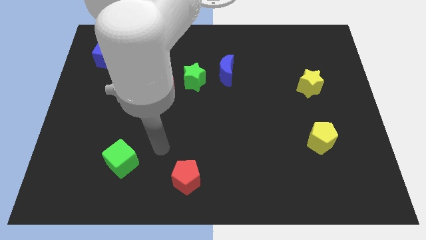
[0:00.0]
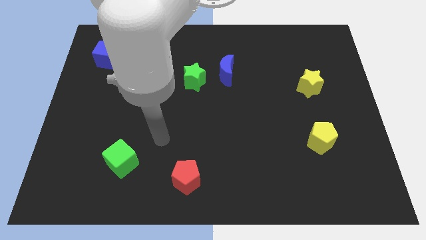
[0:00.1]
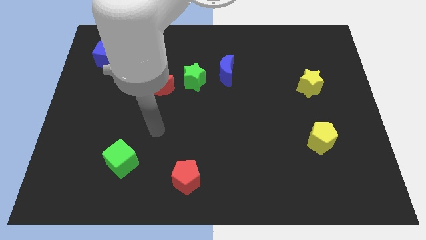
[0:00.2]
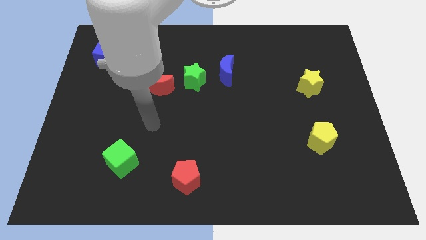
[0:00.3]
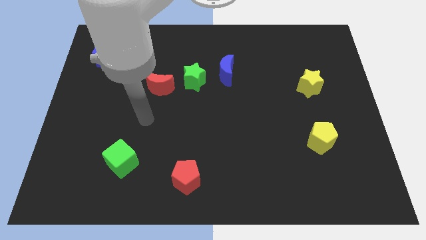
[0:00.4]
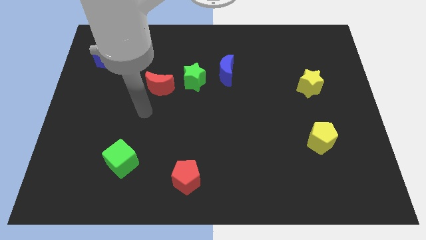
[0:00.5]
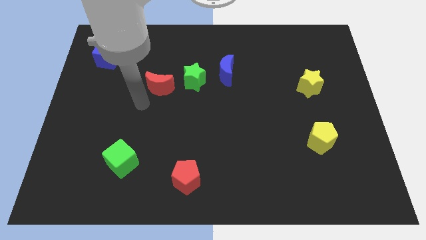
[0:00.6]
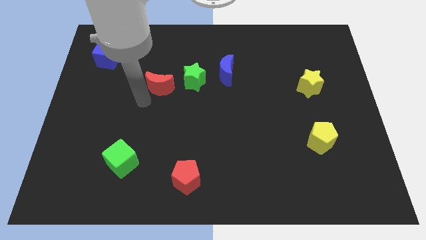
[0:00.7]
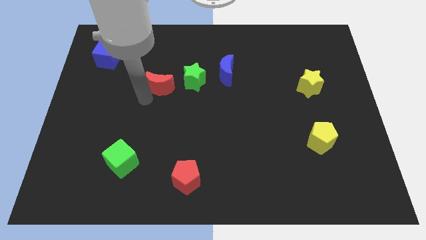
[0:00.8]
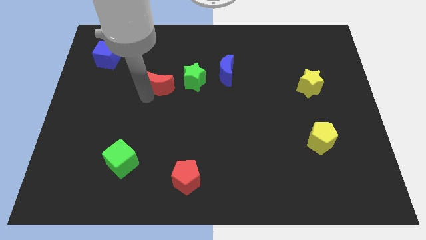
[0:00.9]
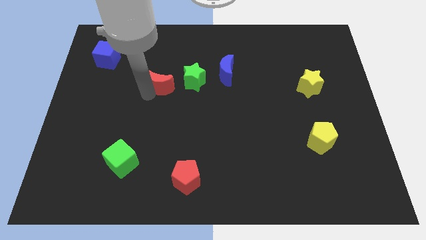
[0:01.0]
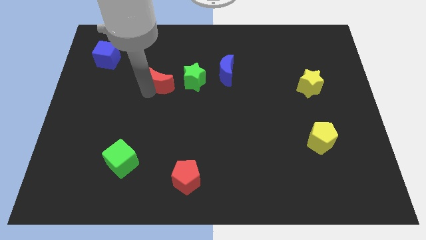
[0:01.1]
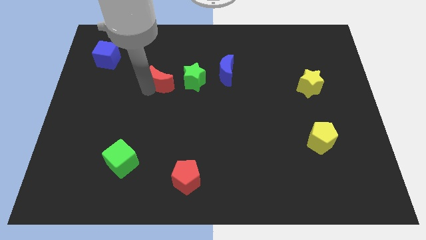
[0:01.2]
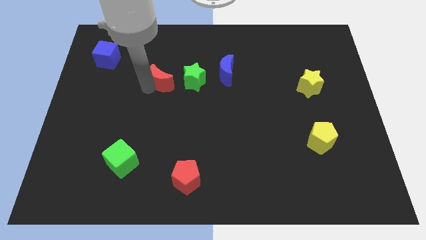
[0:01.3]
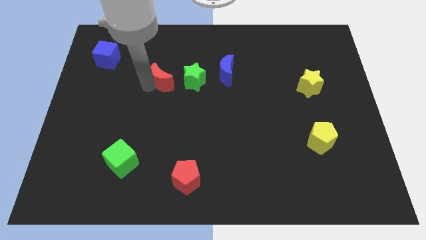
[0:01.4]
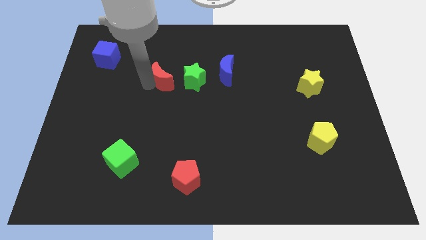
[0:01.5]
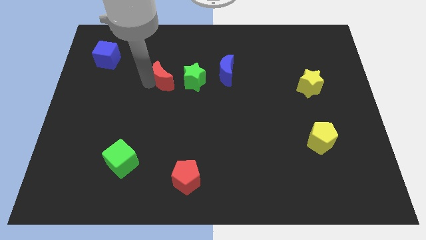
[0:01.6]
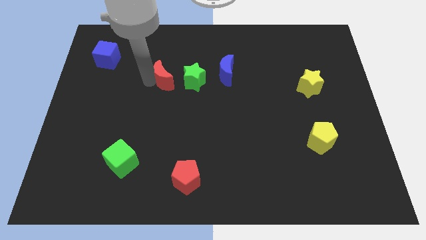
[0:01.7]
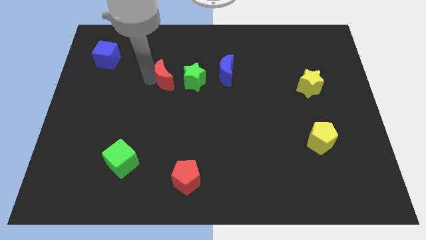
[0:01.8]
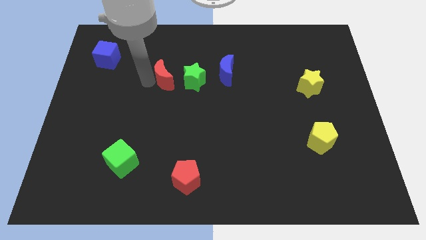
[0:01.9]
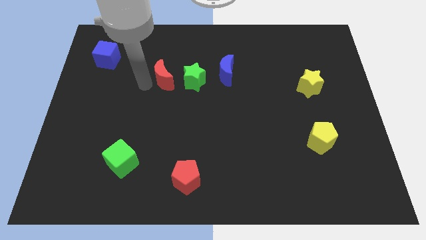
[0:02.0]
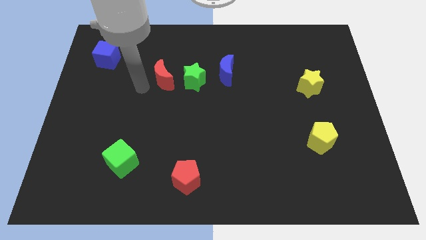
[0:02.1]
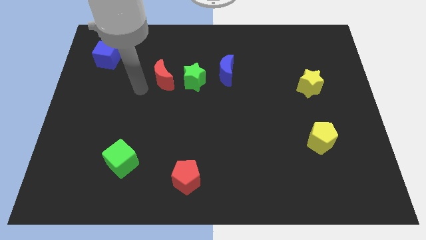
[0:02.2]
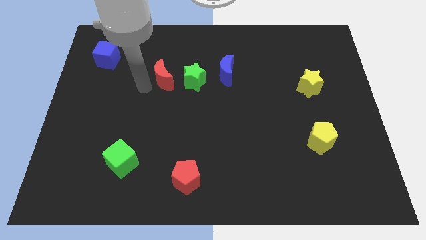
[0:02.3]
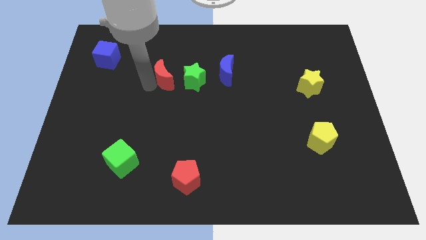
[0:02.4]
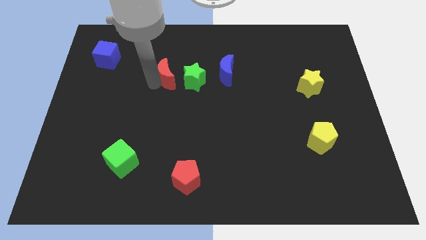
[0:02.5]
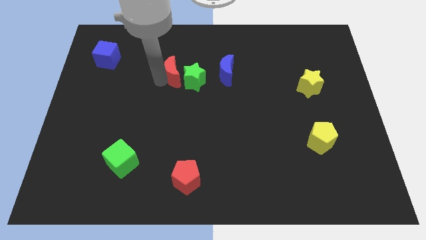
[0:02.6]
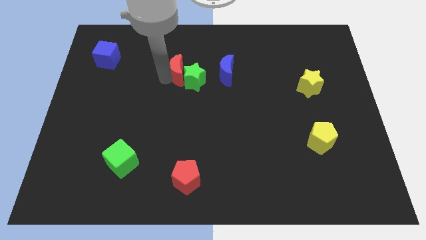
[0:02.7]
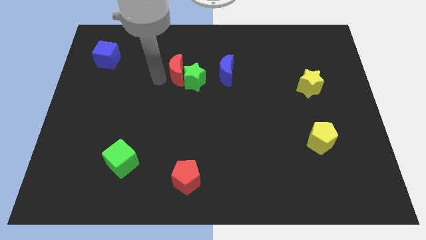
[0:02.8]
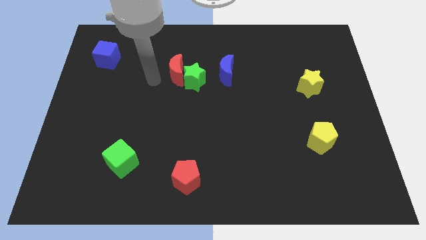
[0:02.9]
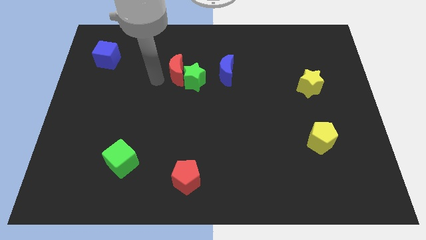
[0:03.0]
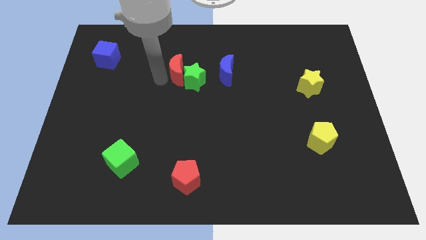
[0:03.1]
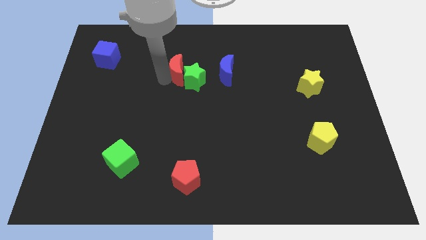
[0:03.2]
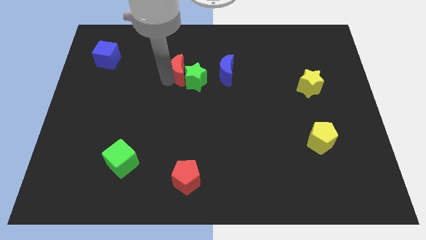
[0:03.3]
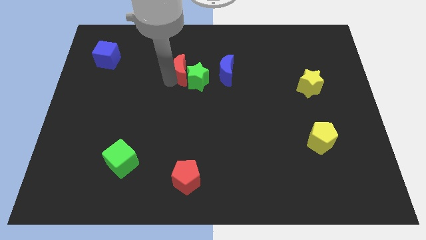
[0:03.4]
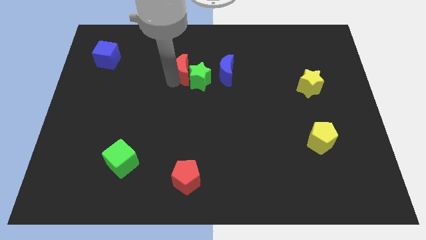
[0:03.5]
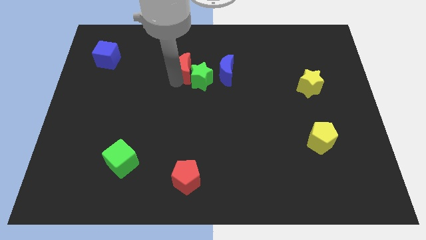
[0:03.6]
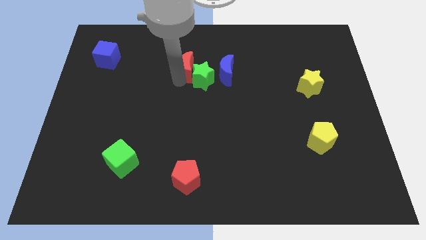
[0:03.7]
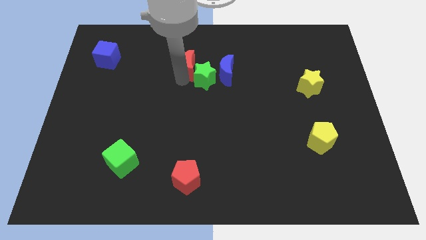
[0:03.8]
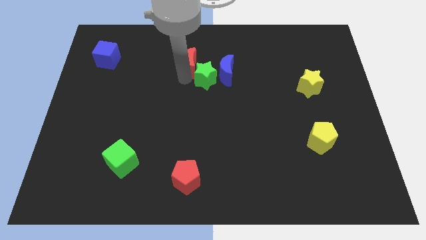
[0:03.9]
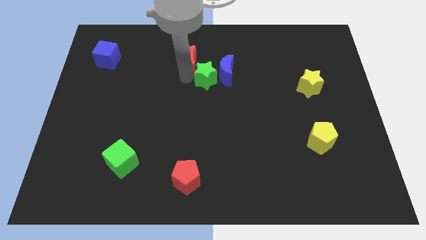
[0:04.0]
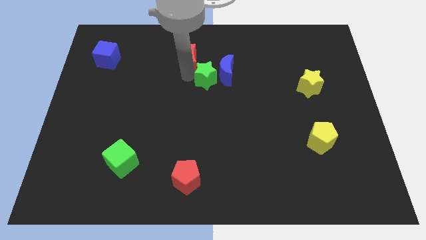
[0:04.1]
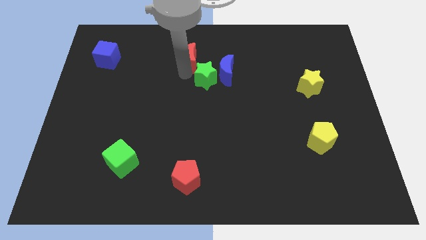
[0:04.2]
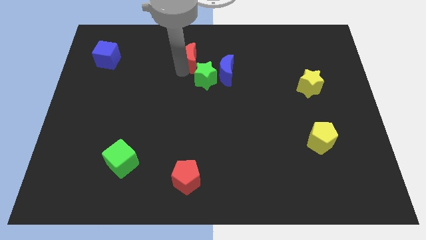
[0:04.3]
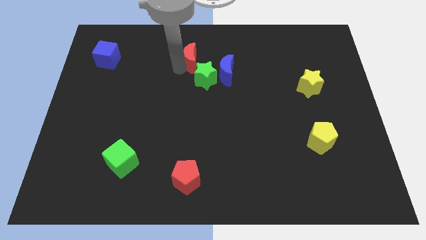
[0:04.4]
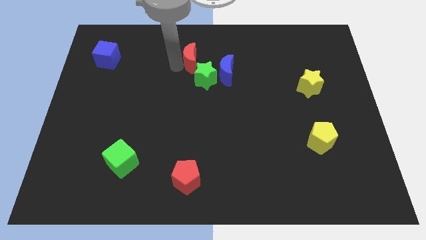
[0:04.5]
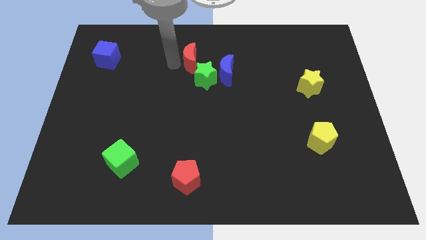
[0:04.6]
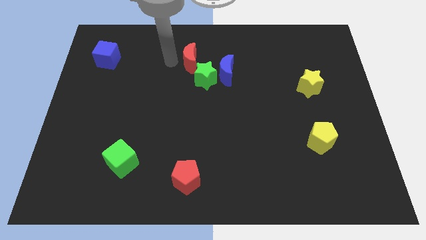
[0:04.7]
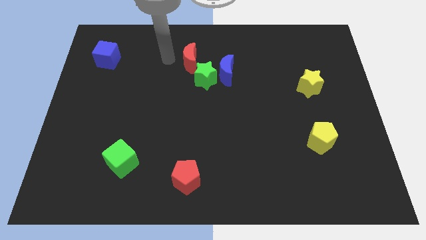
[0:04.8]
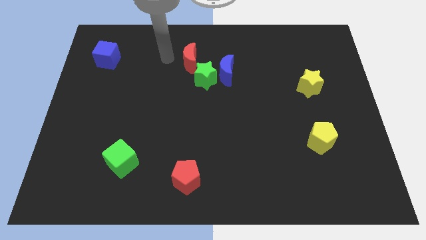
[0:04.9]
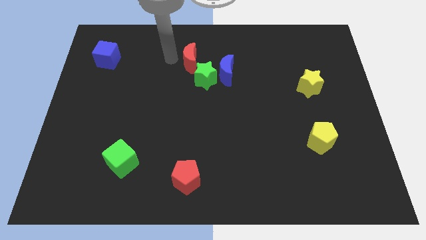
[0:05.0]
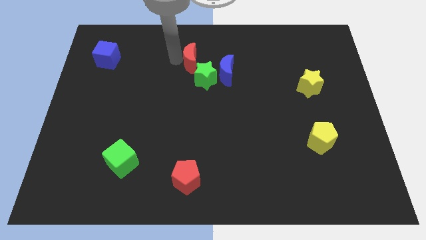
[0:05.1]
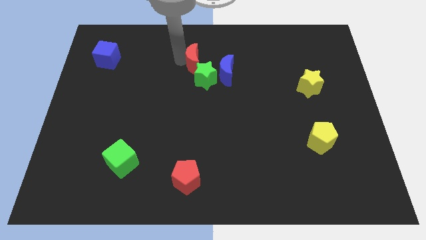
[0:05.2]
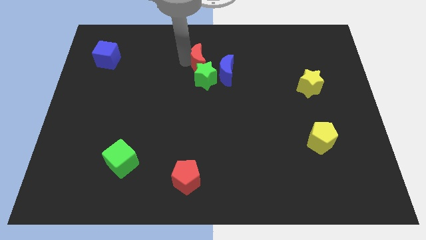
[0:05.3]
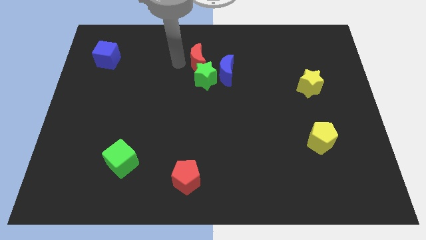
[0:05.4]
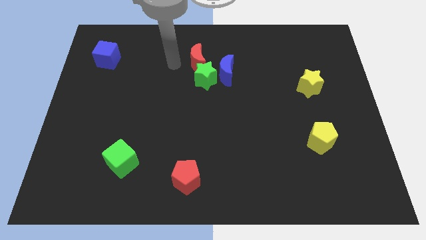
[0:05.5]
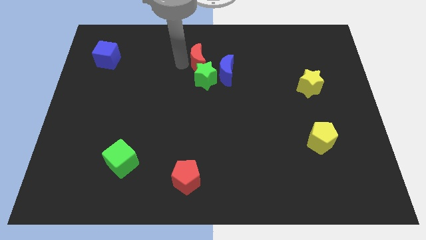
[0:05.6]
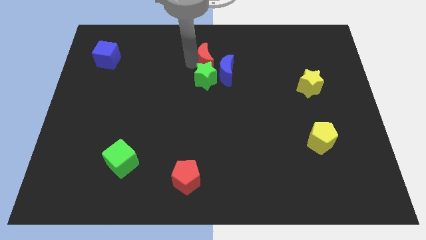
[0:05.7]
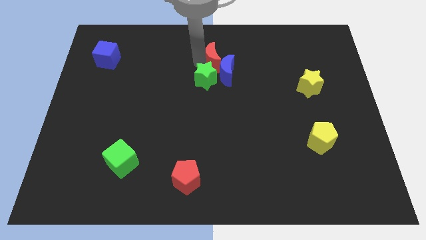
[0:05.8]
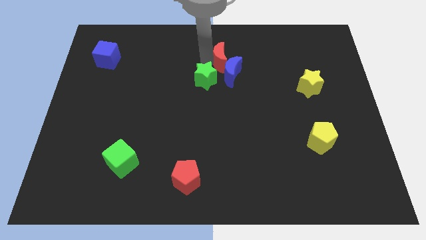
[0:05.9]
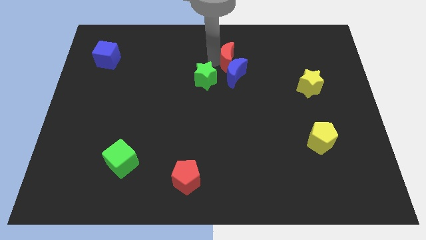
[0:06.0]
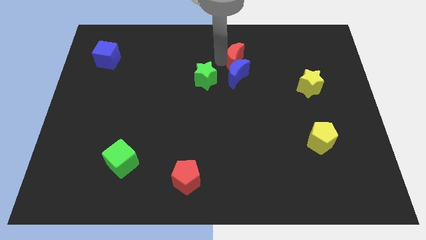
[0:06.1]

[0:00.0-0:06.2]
push the red moon diagonally up and to the right of the blue moon
